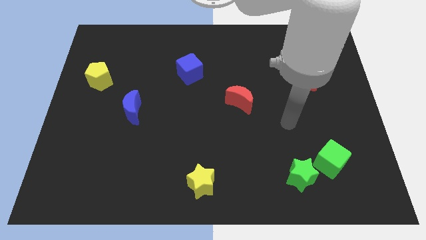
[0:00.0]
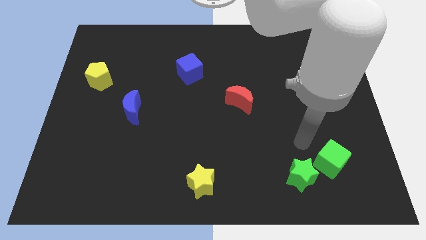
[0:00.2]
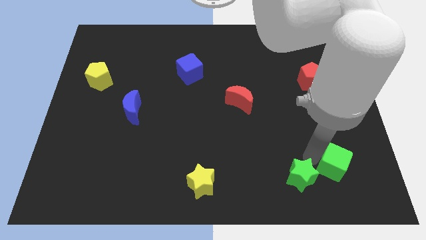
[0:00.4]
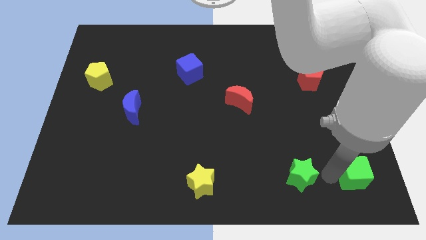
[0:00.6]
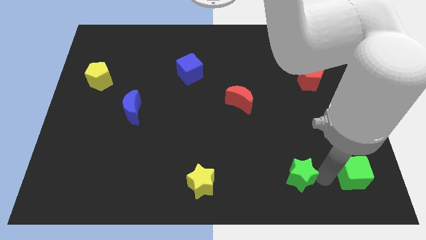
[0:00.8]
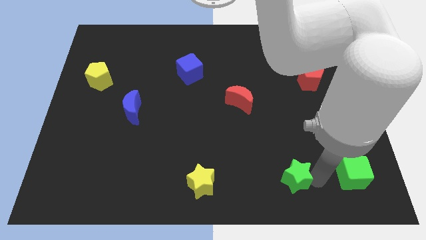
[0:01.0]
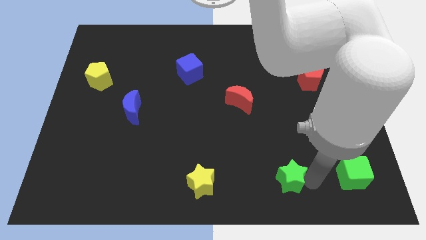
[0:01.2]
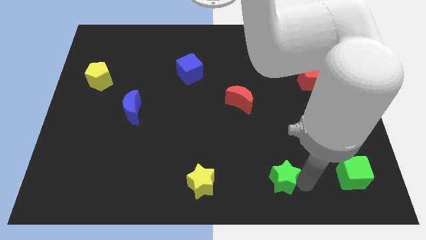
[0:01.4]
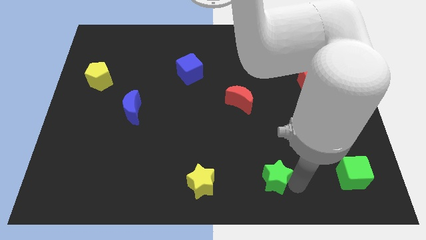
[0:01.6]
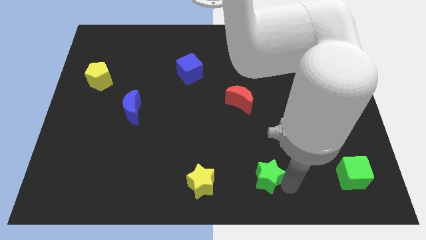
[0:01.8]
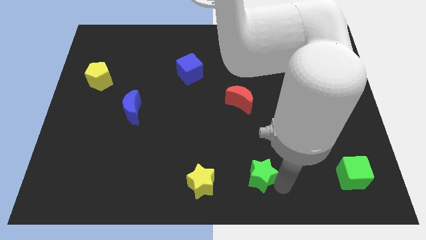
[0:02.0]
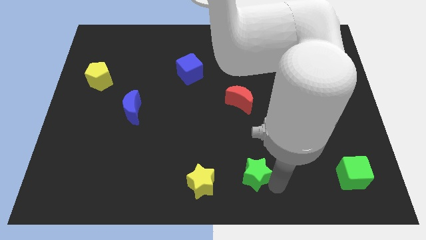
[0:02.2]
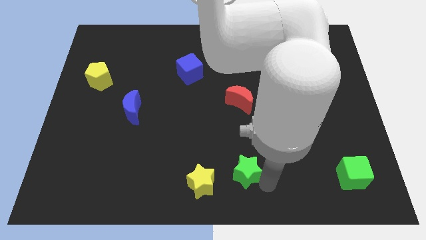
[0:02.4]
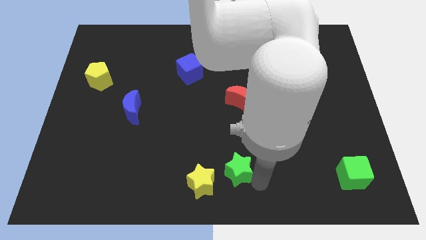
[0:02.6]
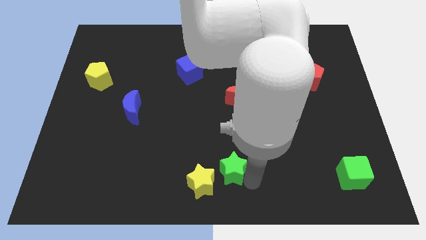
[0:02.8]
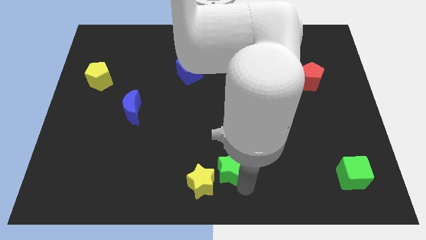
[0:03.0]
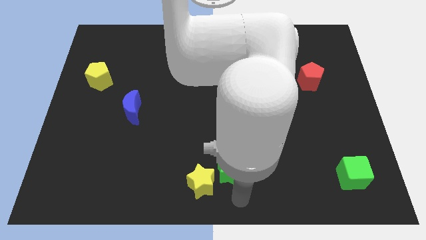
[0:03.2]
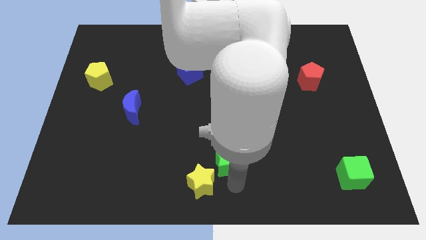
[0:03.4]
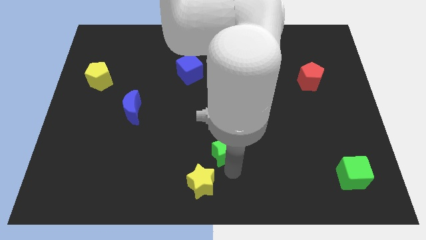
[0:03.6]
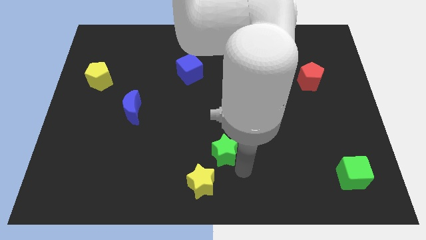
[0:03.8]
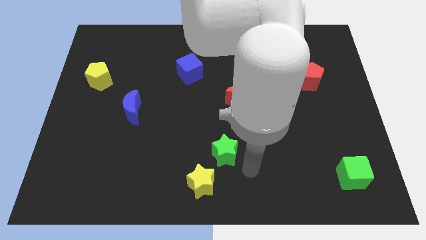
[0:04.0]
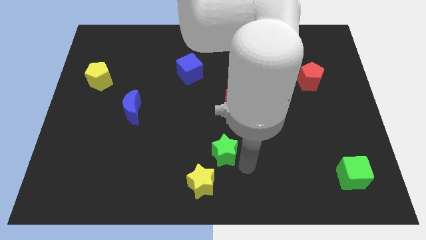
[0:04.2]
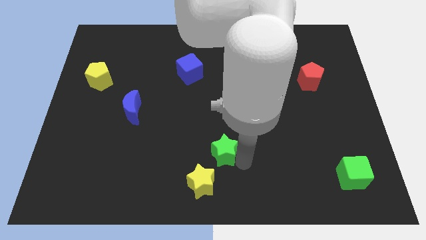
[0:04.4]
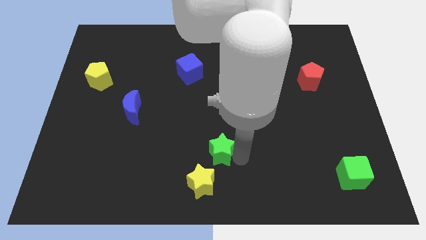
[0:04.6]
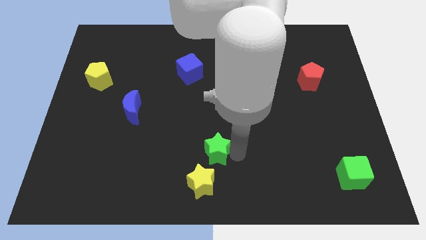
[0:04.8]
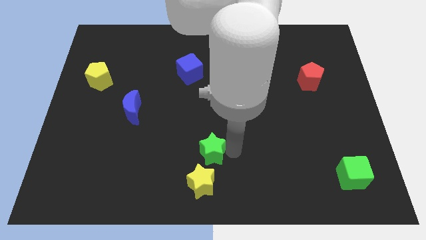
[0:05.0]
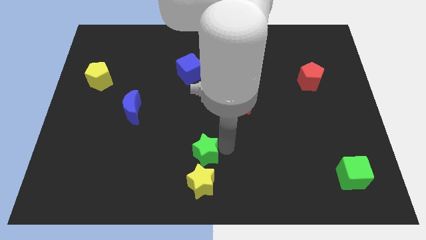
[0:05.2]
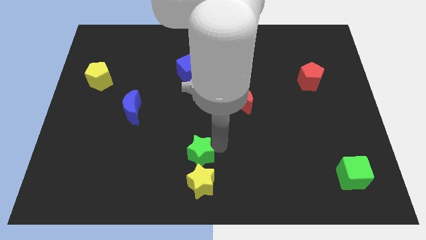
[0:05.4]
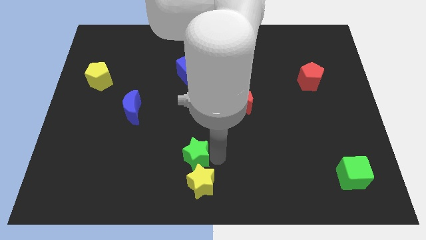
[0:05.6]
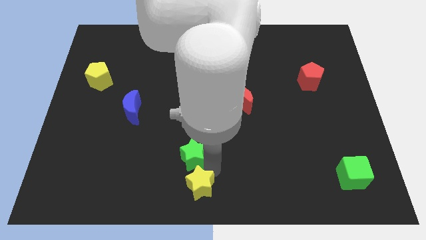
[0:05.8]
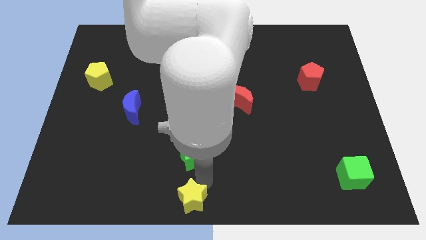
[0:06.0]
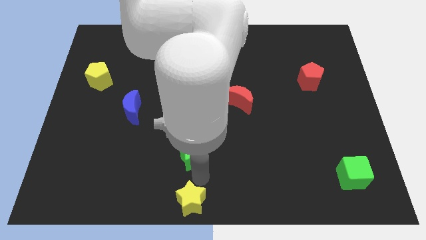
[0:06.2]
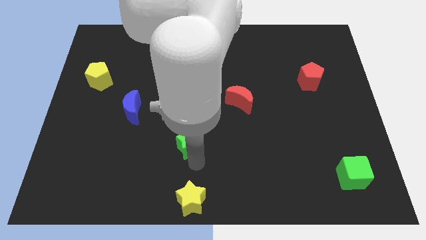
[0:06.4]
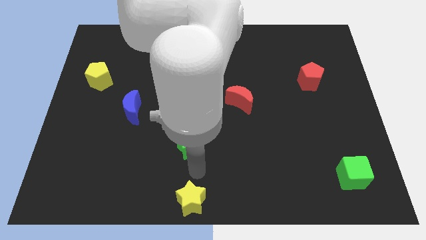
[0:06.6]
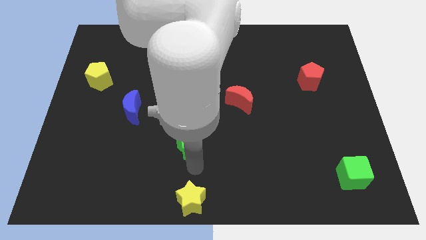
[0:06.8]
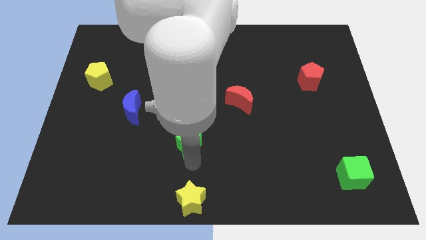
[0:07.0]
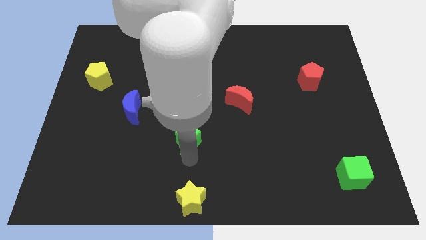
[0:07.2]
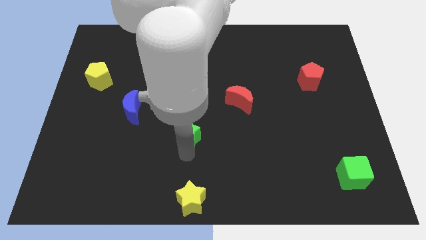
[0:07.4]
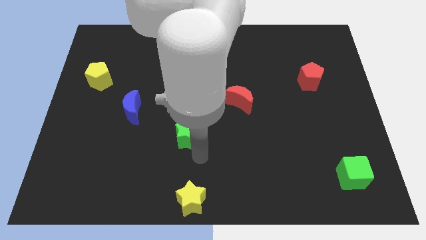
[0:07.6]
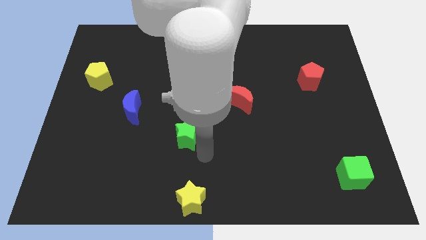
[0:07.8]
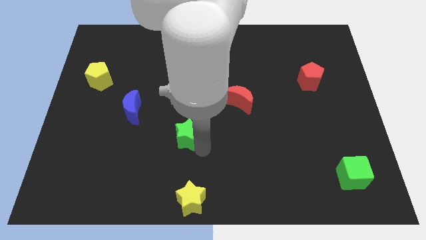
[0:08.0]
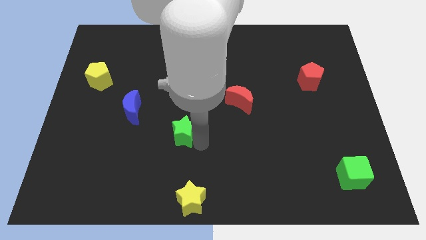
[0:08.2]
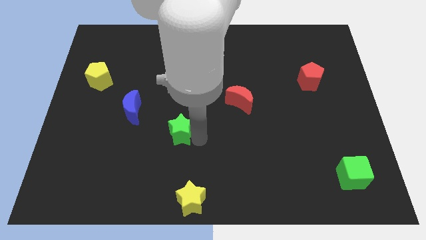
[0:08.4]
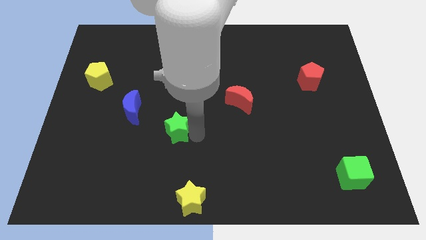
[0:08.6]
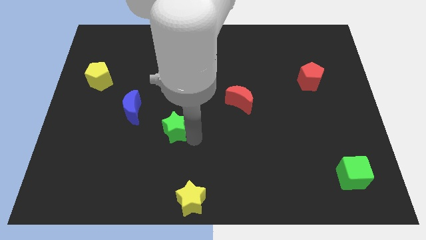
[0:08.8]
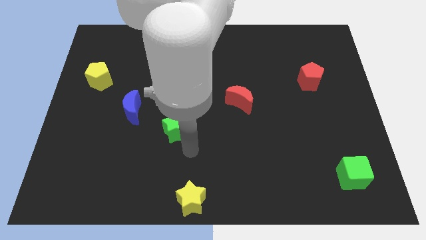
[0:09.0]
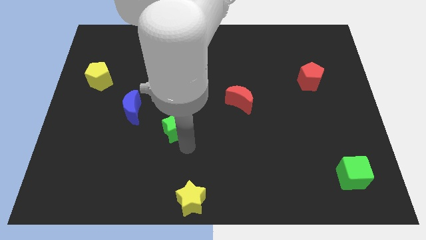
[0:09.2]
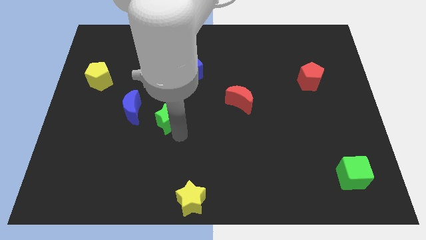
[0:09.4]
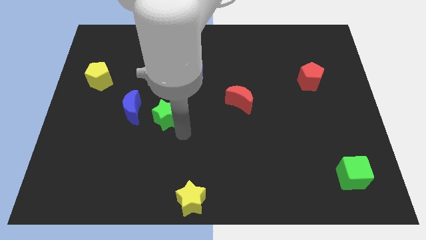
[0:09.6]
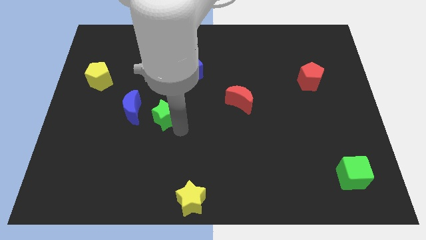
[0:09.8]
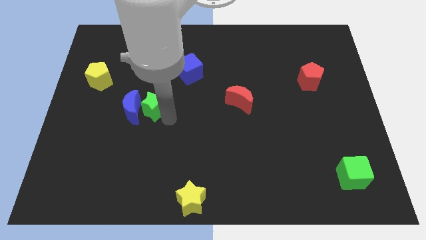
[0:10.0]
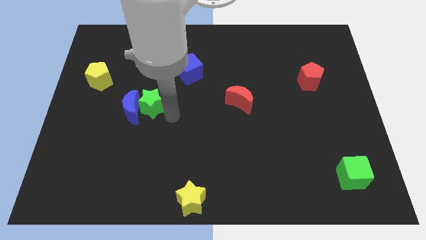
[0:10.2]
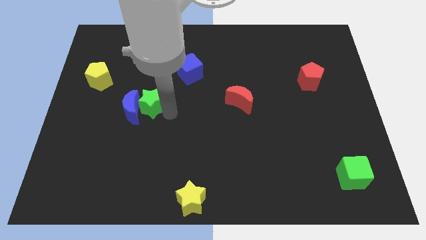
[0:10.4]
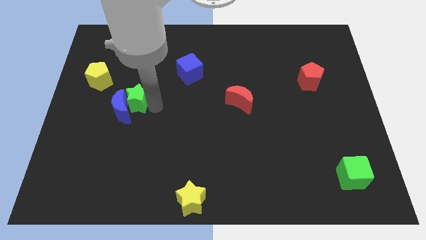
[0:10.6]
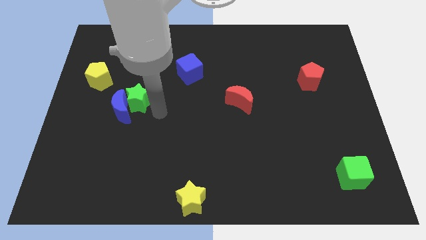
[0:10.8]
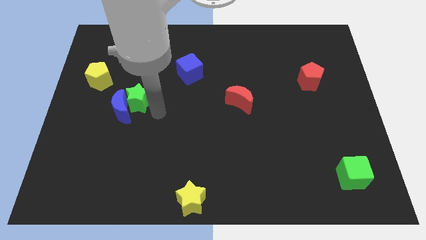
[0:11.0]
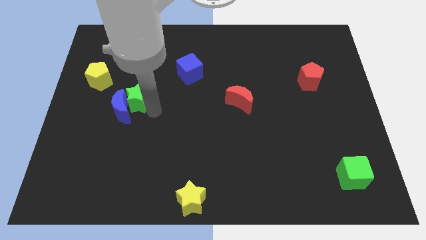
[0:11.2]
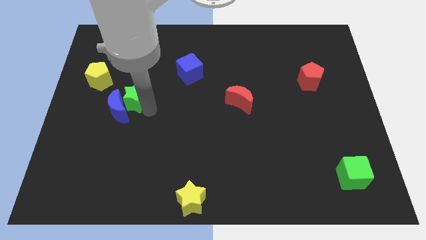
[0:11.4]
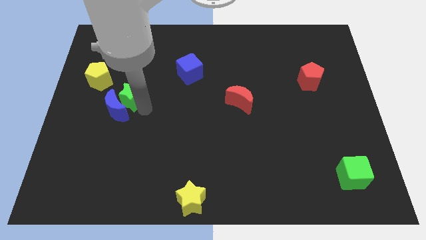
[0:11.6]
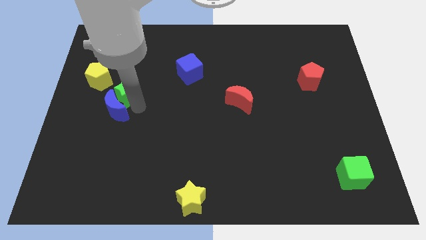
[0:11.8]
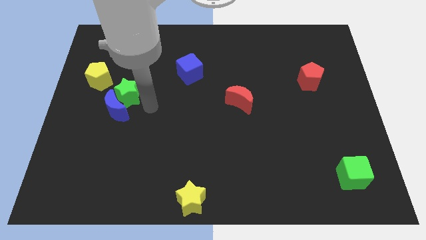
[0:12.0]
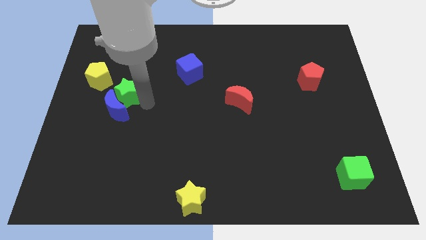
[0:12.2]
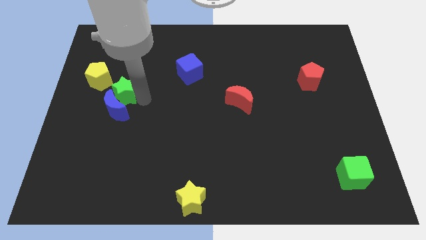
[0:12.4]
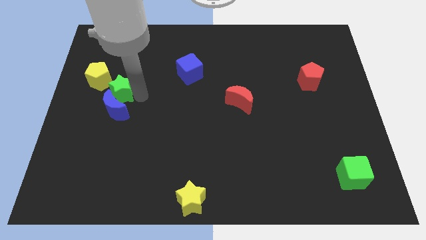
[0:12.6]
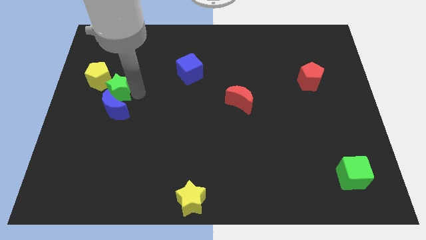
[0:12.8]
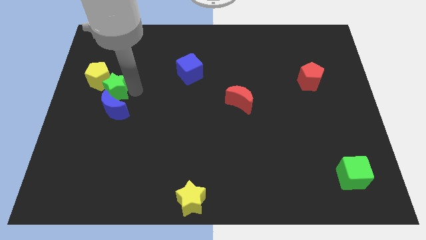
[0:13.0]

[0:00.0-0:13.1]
slide the green star towards the yellow pentagon

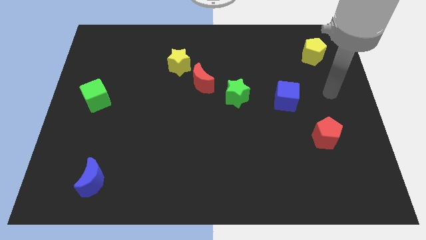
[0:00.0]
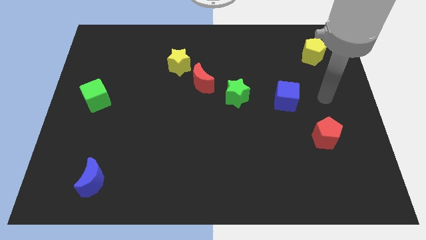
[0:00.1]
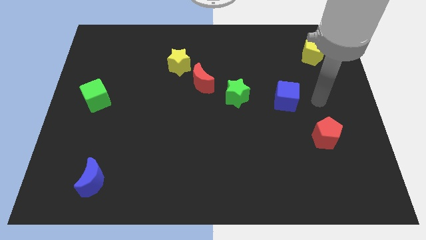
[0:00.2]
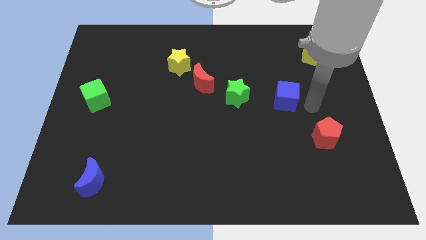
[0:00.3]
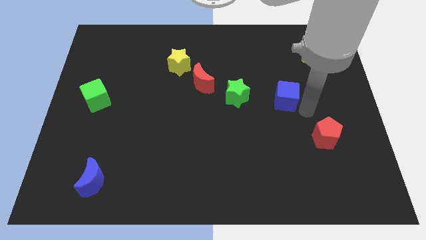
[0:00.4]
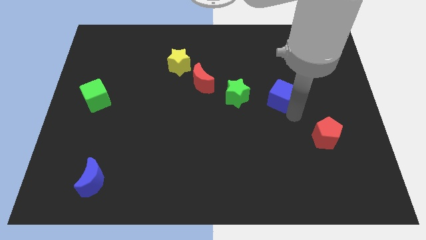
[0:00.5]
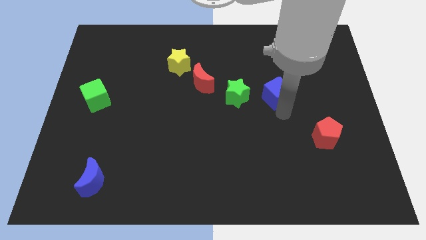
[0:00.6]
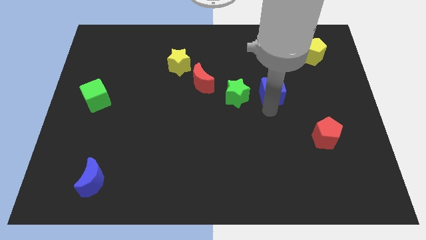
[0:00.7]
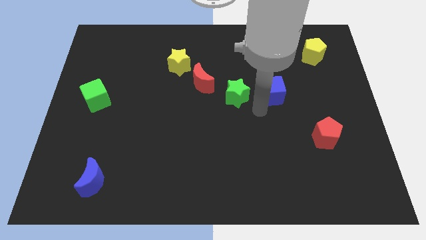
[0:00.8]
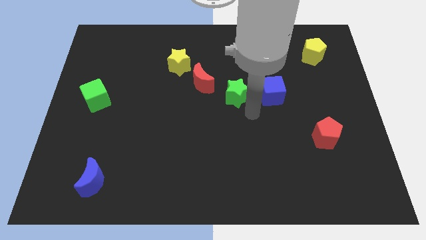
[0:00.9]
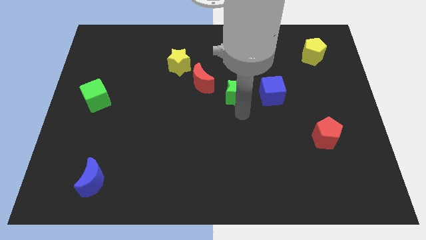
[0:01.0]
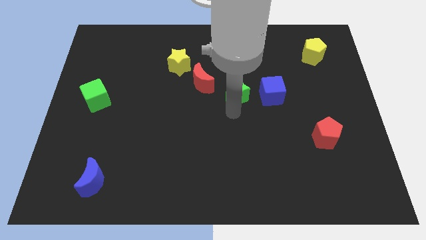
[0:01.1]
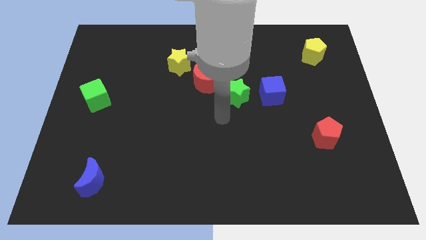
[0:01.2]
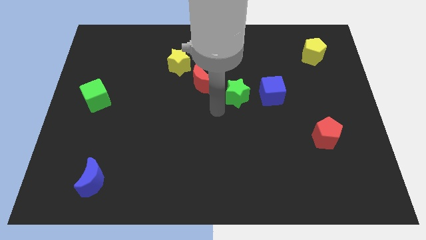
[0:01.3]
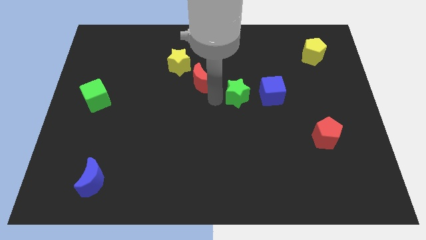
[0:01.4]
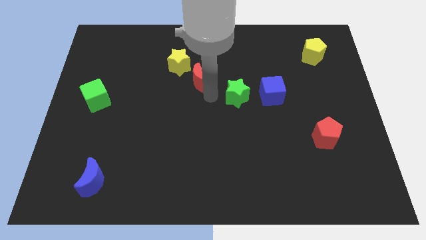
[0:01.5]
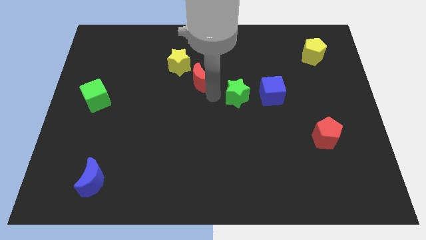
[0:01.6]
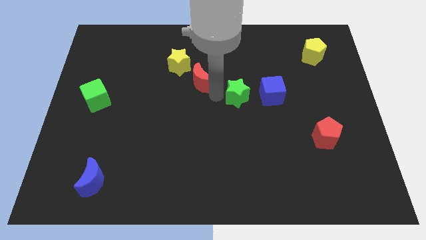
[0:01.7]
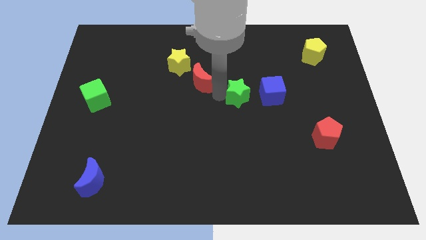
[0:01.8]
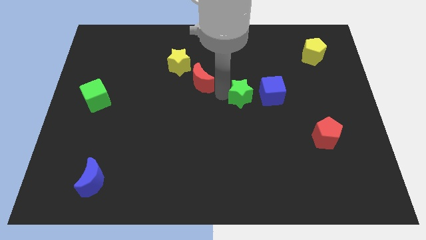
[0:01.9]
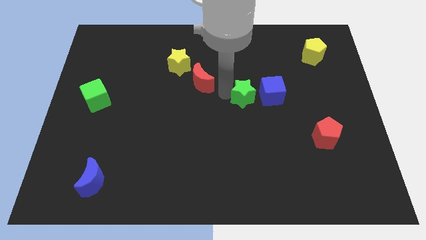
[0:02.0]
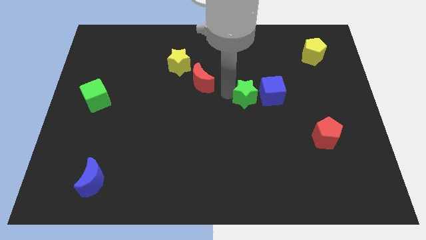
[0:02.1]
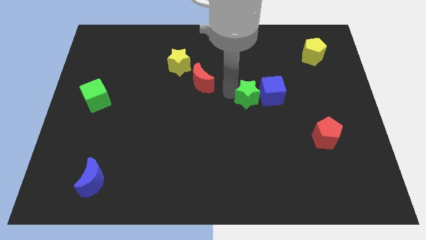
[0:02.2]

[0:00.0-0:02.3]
slide the green star towards the blue cube
